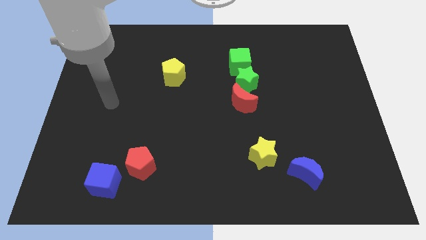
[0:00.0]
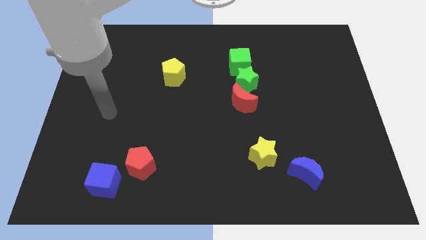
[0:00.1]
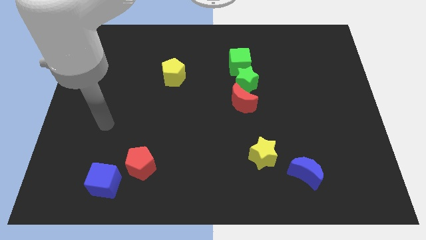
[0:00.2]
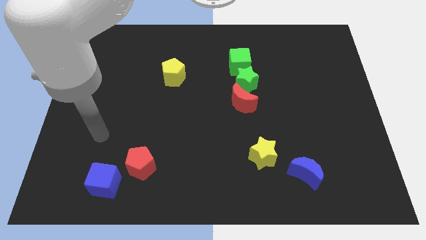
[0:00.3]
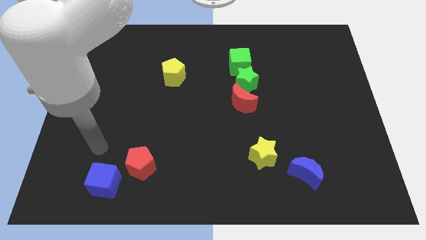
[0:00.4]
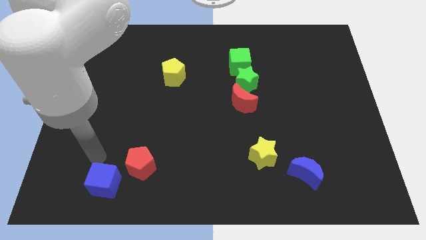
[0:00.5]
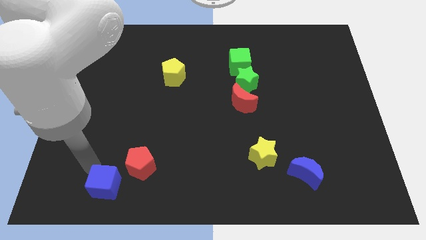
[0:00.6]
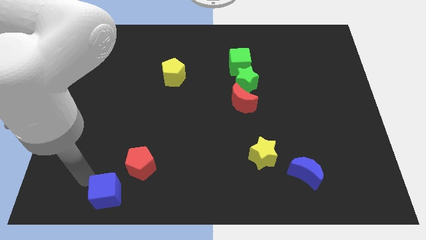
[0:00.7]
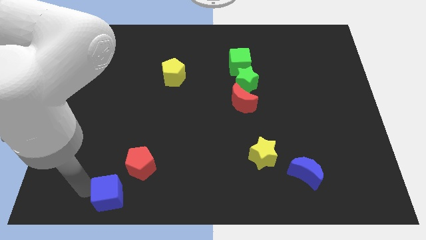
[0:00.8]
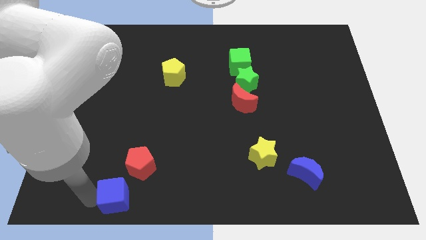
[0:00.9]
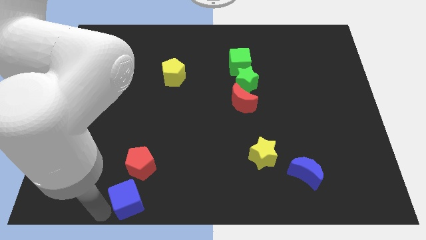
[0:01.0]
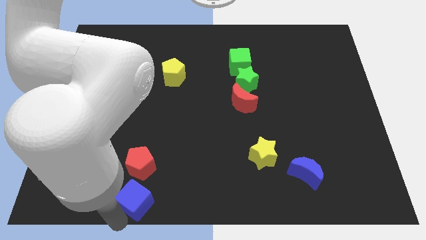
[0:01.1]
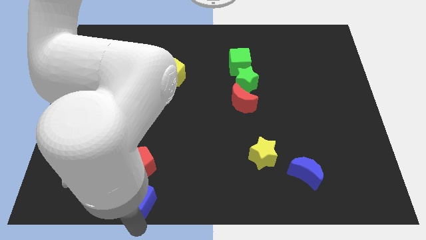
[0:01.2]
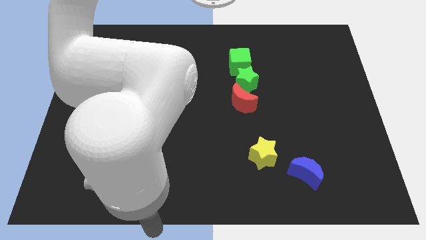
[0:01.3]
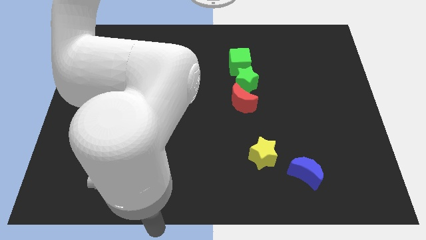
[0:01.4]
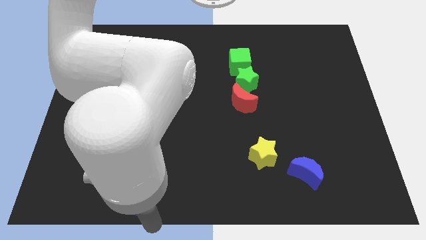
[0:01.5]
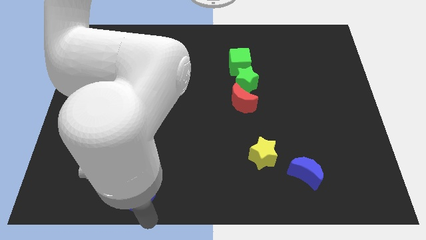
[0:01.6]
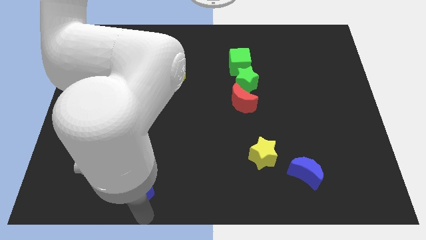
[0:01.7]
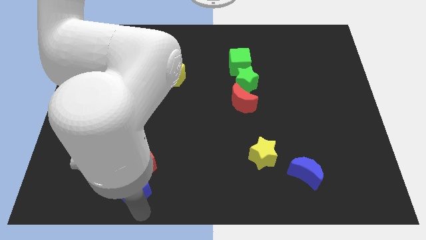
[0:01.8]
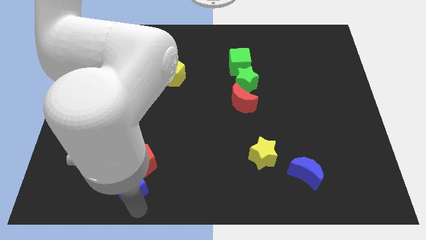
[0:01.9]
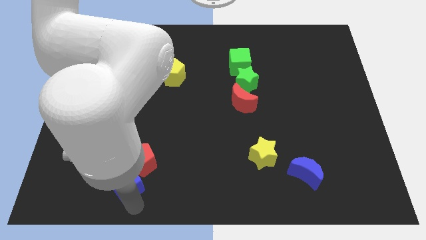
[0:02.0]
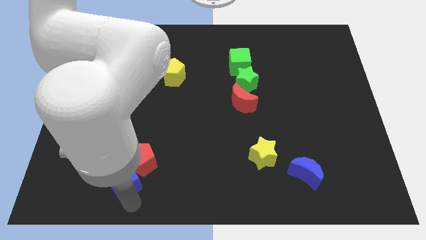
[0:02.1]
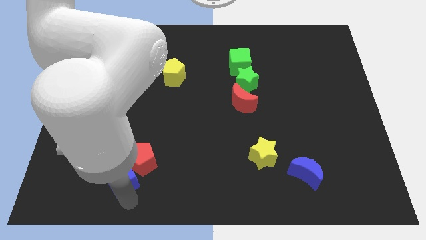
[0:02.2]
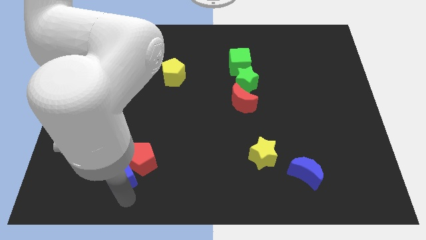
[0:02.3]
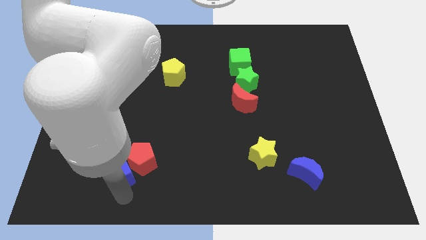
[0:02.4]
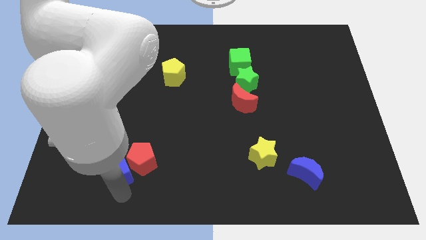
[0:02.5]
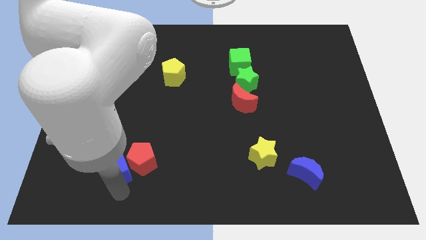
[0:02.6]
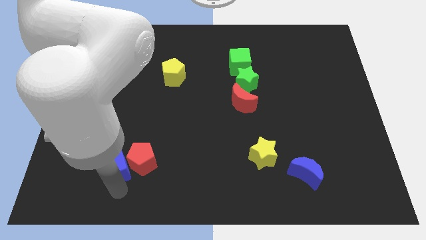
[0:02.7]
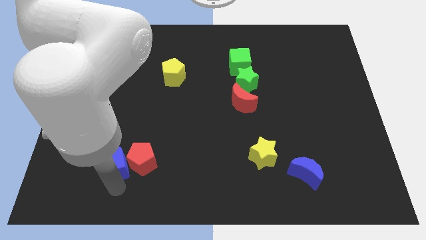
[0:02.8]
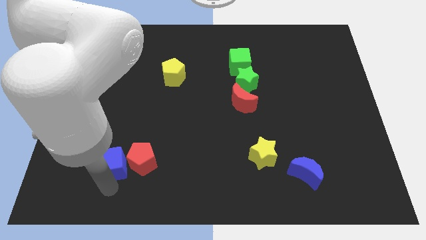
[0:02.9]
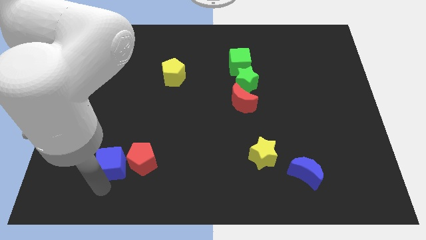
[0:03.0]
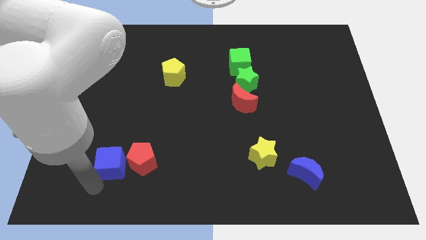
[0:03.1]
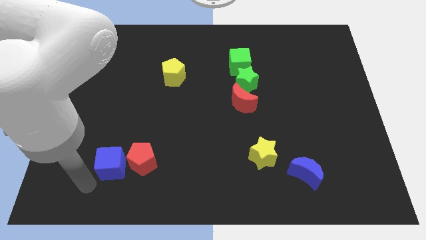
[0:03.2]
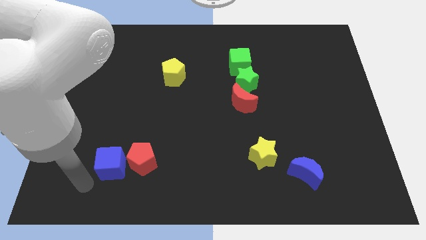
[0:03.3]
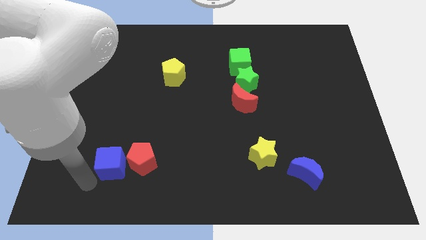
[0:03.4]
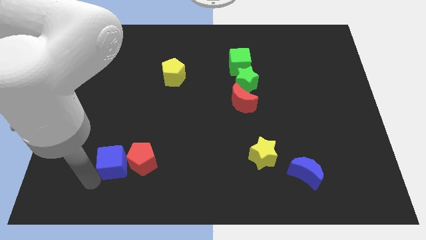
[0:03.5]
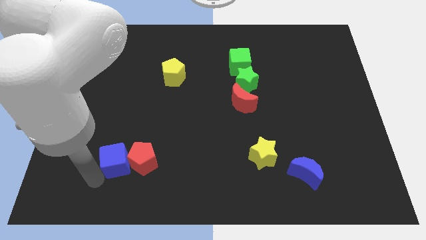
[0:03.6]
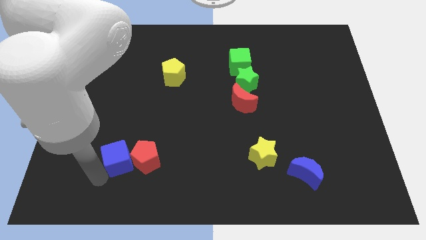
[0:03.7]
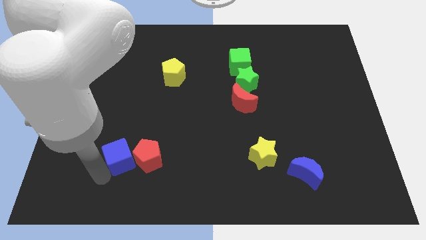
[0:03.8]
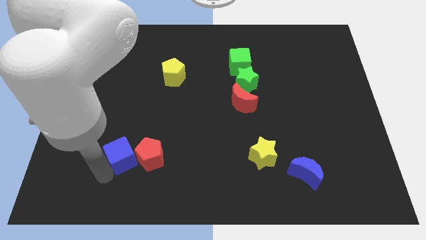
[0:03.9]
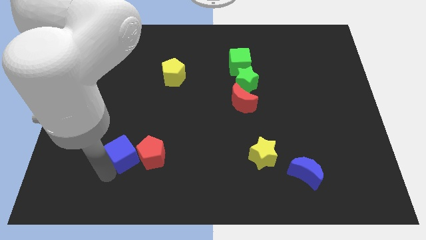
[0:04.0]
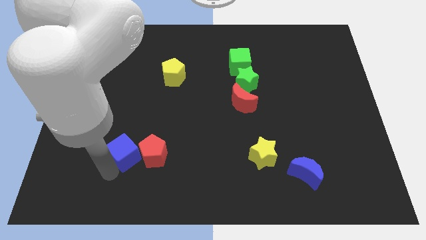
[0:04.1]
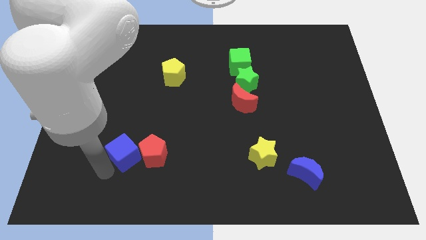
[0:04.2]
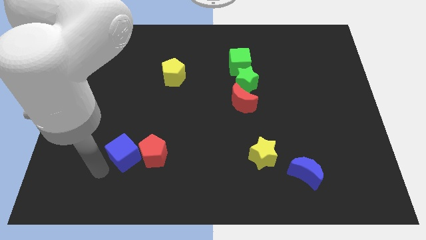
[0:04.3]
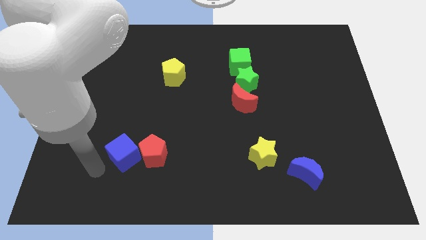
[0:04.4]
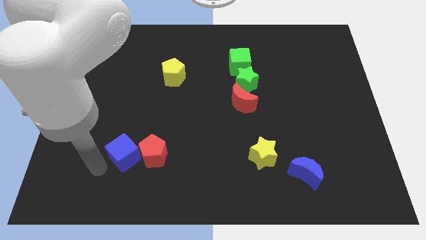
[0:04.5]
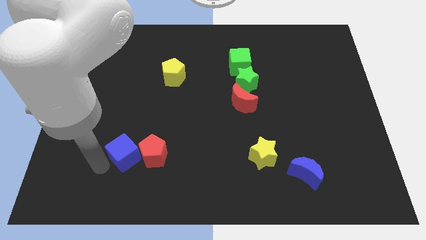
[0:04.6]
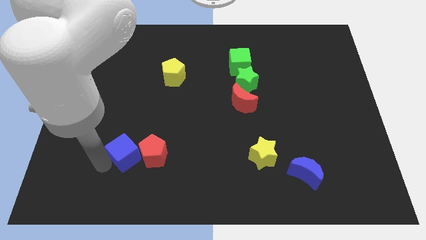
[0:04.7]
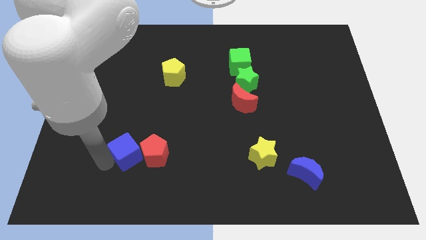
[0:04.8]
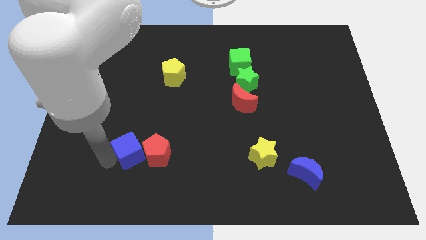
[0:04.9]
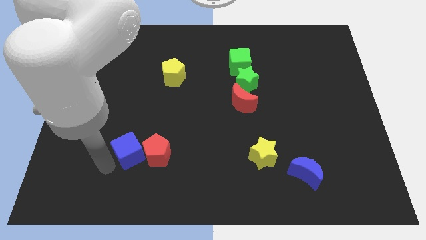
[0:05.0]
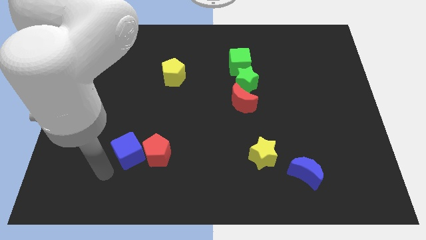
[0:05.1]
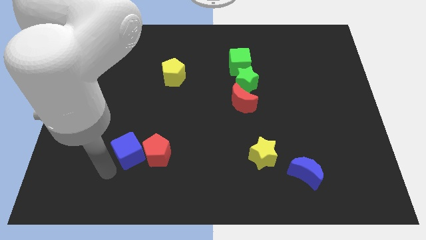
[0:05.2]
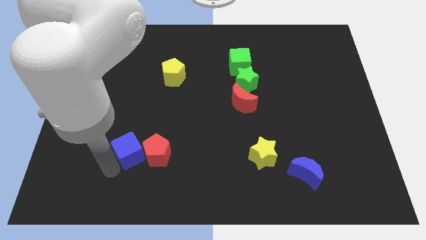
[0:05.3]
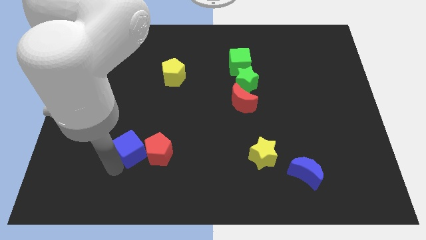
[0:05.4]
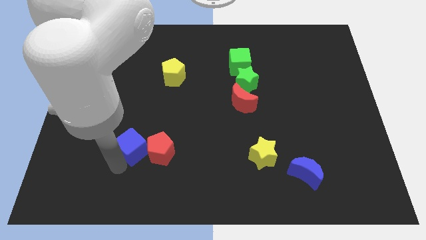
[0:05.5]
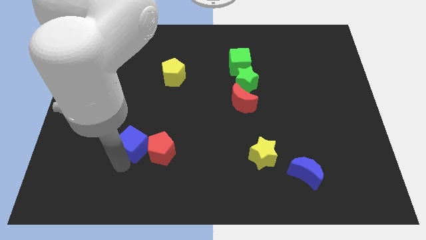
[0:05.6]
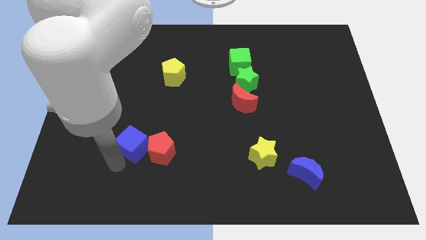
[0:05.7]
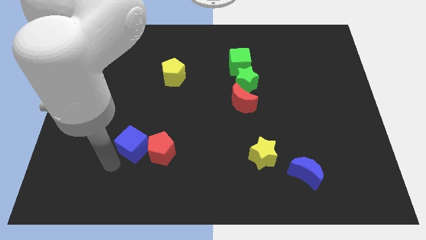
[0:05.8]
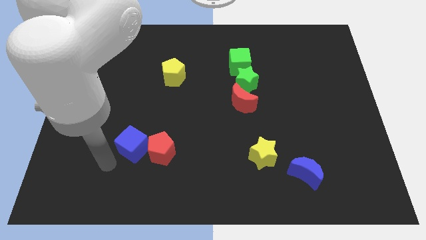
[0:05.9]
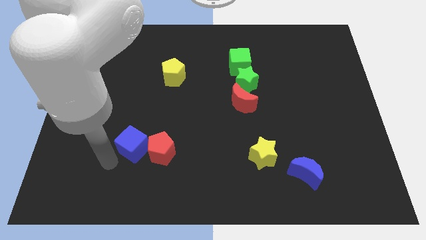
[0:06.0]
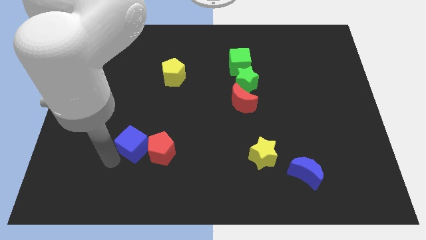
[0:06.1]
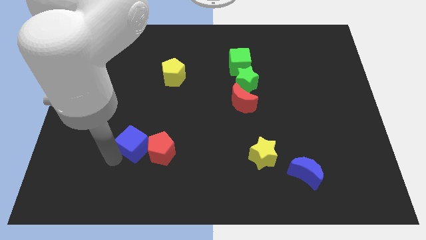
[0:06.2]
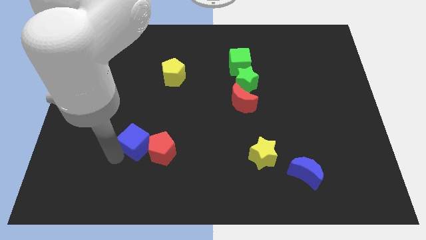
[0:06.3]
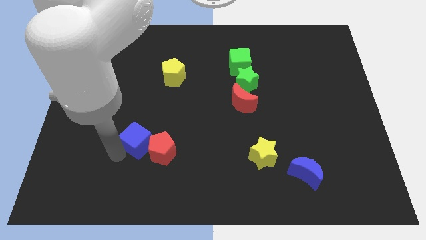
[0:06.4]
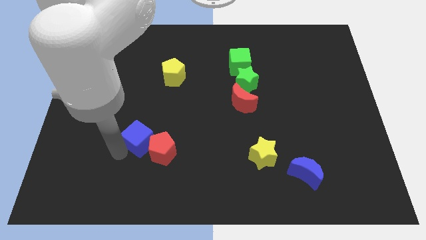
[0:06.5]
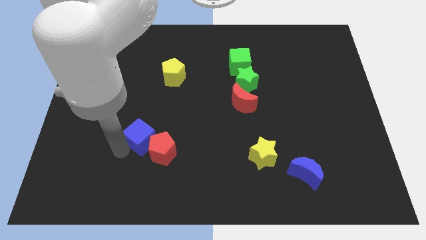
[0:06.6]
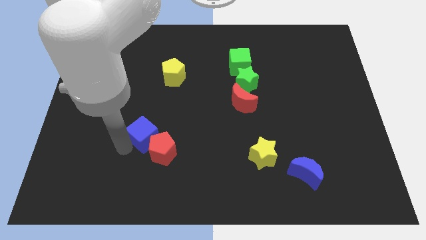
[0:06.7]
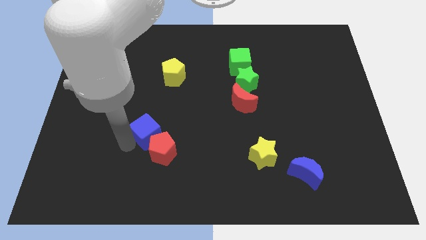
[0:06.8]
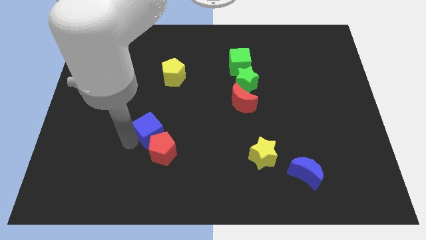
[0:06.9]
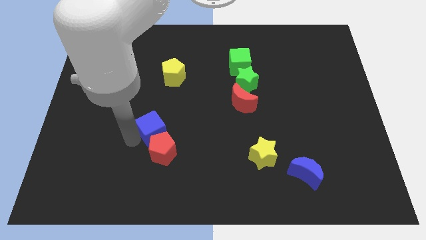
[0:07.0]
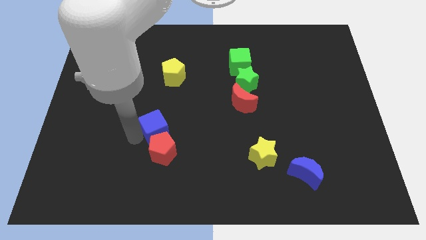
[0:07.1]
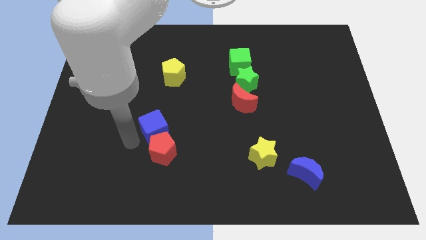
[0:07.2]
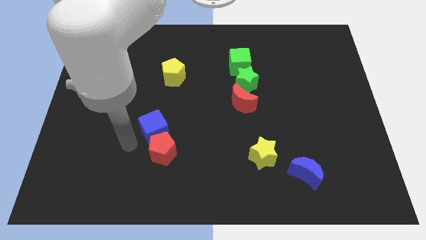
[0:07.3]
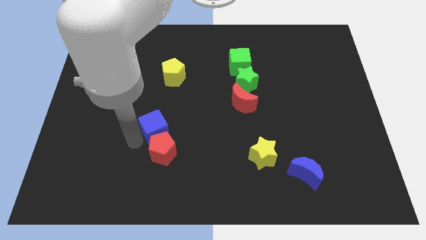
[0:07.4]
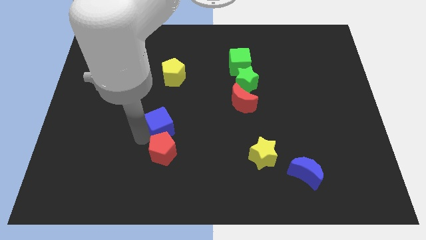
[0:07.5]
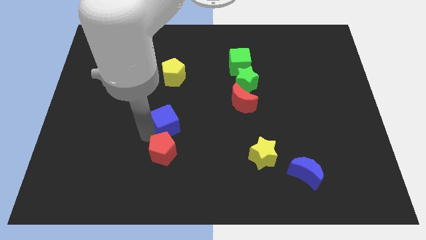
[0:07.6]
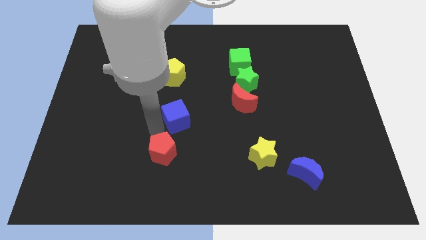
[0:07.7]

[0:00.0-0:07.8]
push the blue cube diagonally up and right

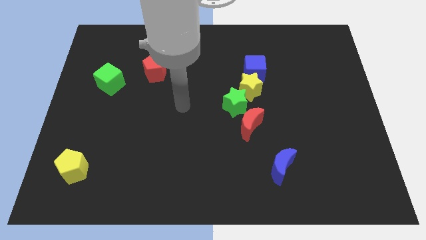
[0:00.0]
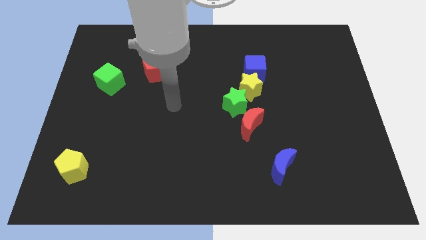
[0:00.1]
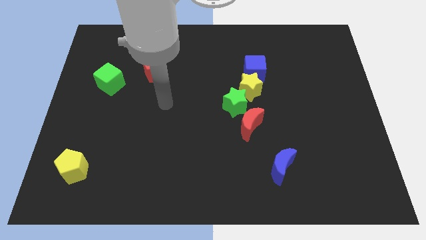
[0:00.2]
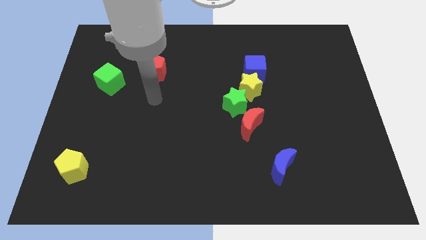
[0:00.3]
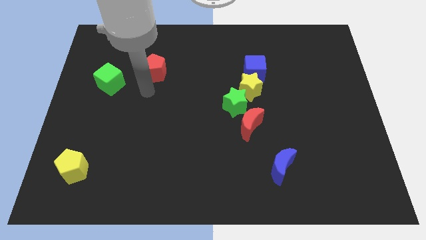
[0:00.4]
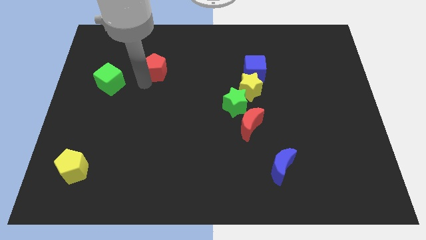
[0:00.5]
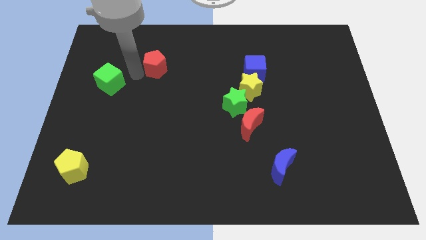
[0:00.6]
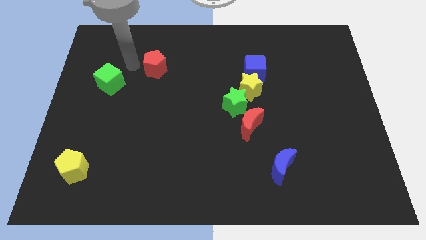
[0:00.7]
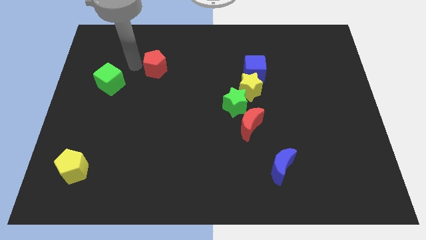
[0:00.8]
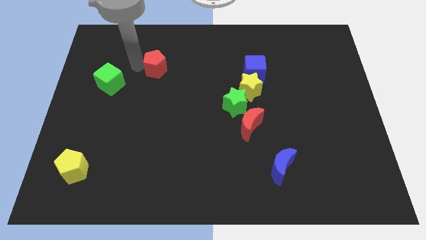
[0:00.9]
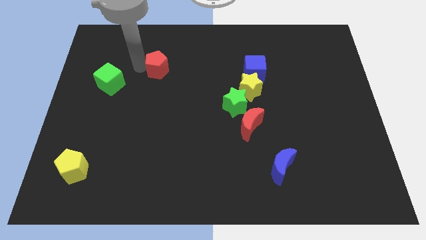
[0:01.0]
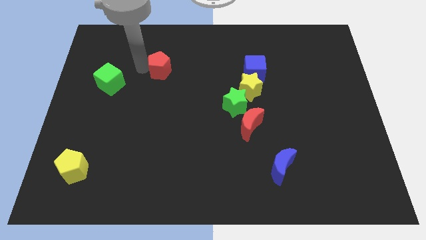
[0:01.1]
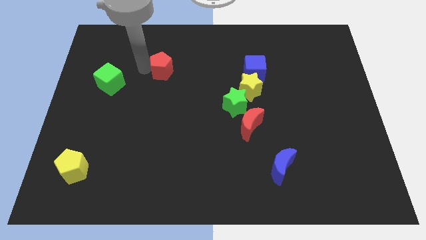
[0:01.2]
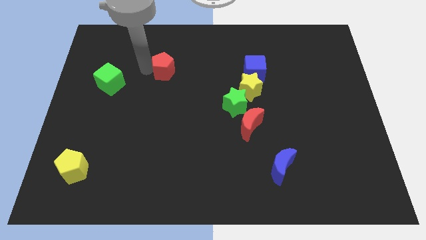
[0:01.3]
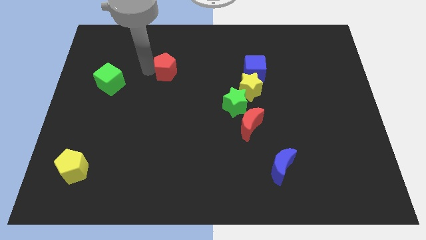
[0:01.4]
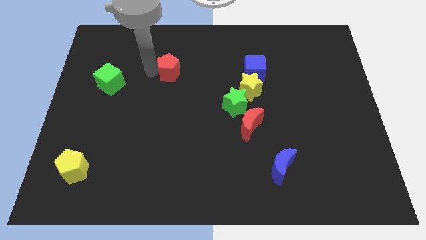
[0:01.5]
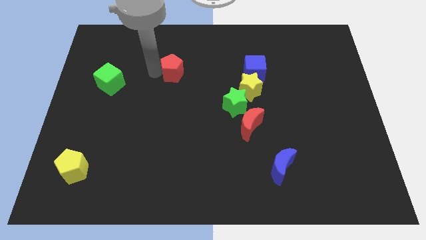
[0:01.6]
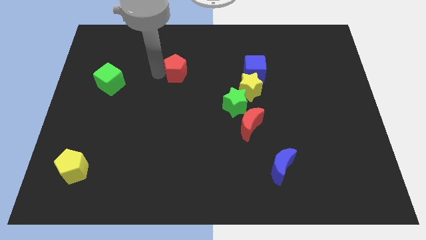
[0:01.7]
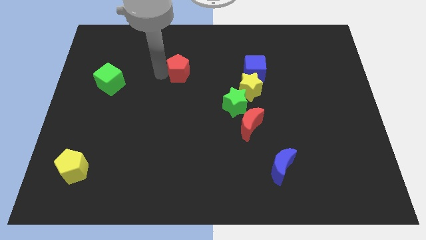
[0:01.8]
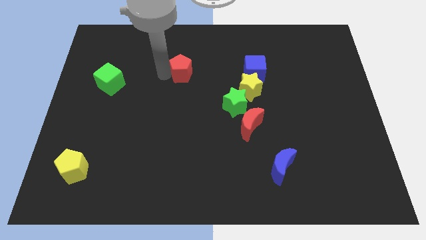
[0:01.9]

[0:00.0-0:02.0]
slightly push the red pentagon right
